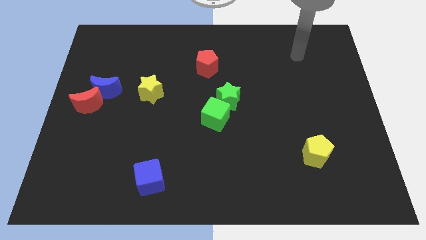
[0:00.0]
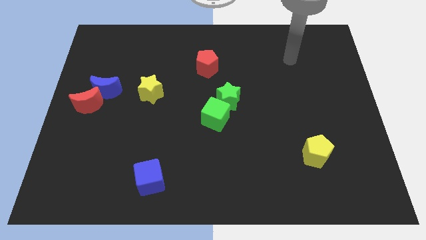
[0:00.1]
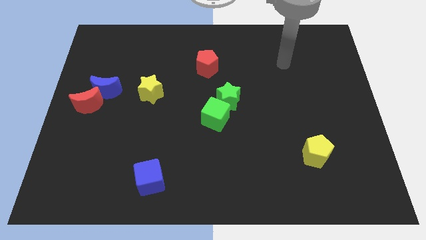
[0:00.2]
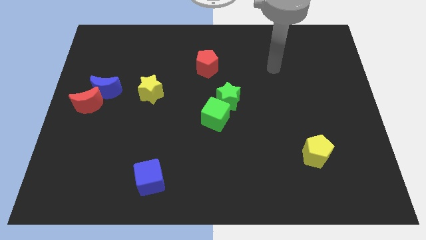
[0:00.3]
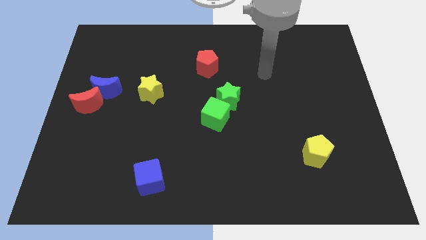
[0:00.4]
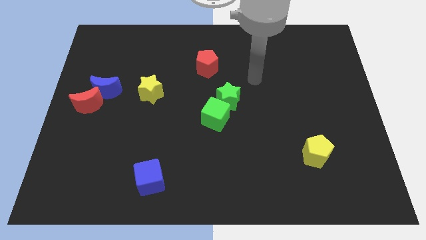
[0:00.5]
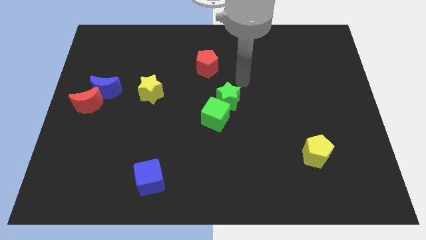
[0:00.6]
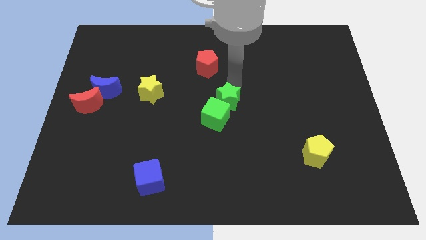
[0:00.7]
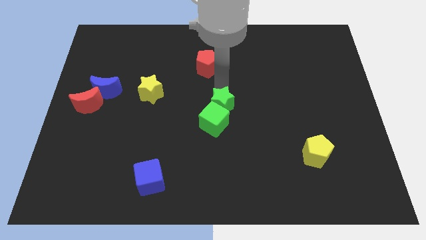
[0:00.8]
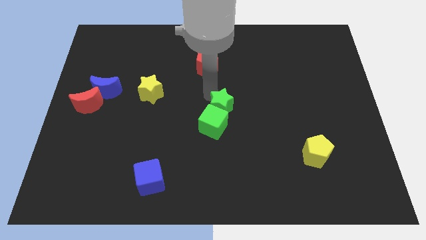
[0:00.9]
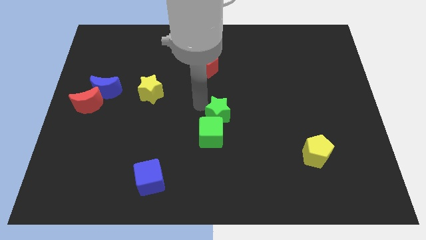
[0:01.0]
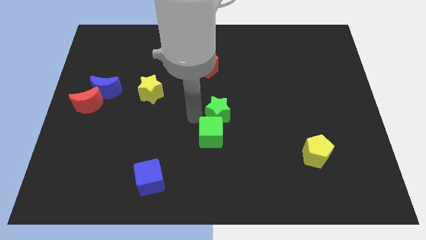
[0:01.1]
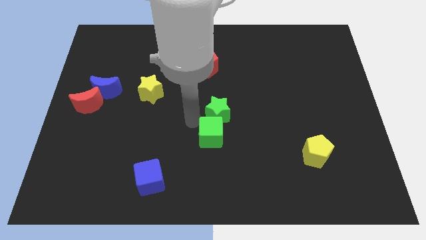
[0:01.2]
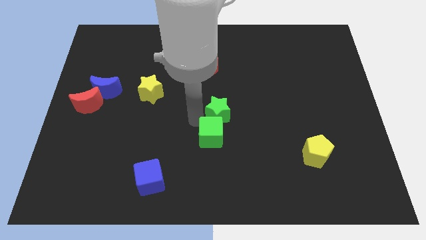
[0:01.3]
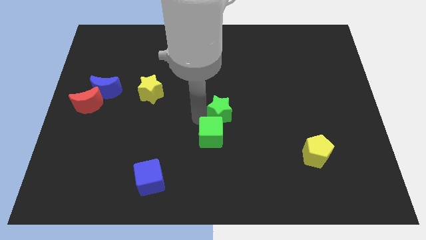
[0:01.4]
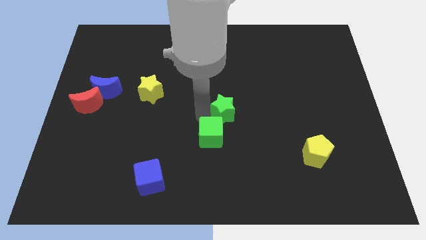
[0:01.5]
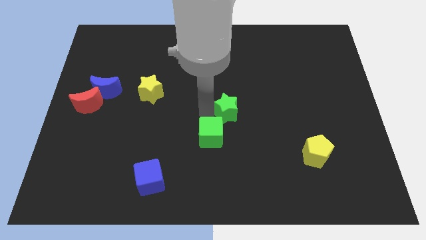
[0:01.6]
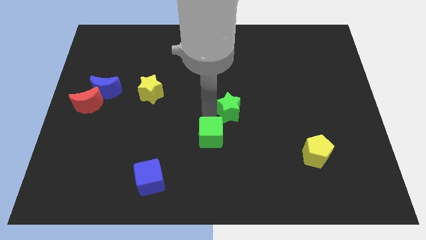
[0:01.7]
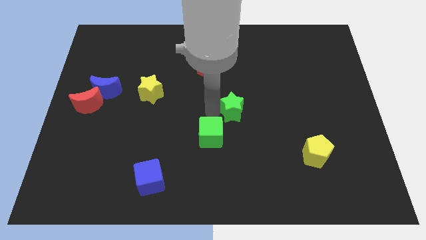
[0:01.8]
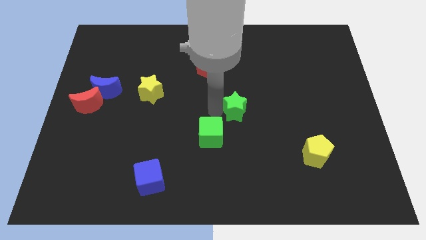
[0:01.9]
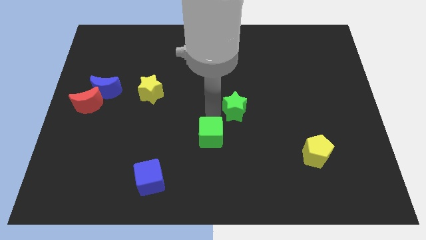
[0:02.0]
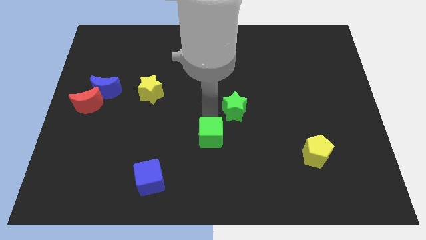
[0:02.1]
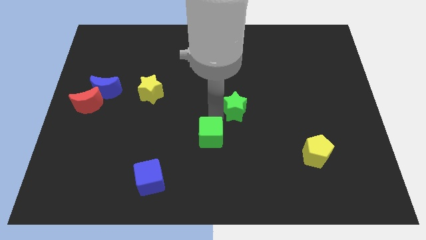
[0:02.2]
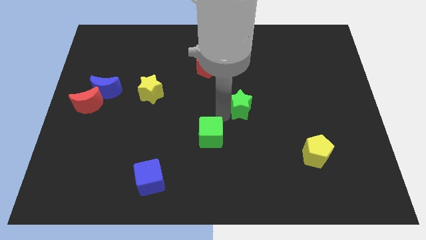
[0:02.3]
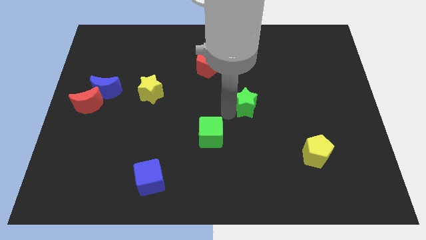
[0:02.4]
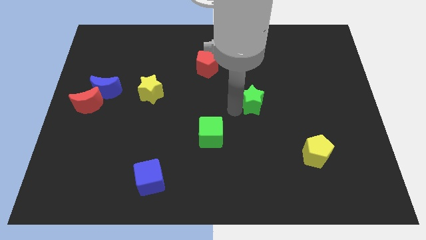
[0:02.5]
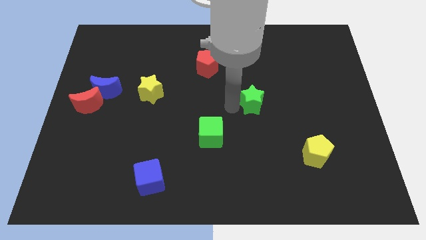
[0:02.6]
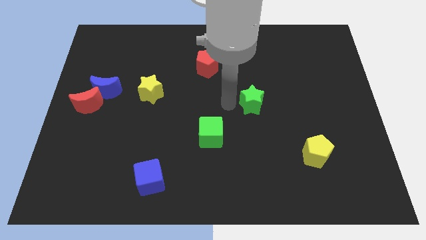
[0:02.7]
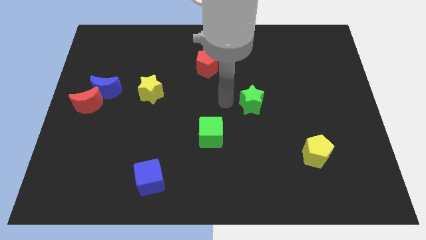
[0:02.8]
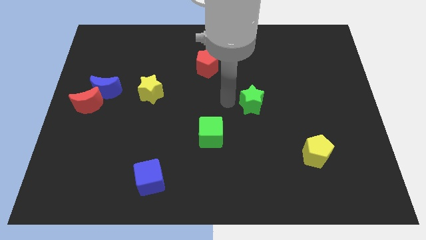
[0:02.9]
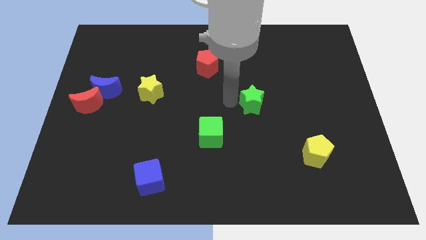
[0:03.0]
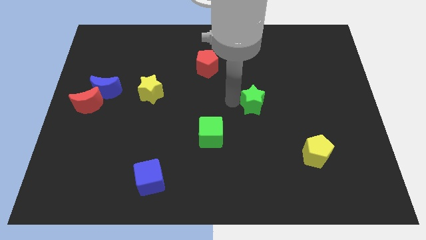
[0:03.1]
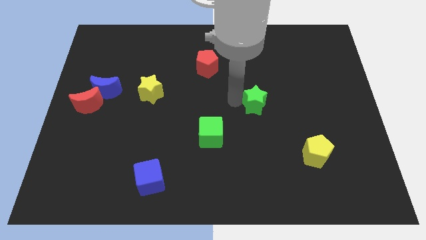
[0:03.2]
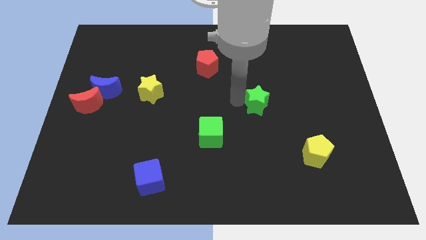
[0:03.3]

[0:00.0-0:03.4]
slide the green star a little right

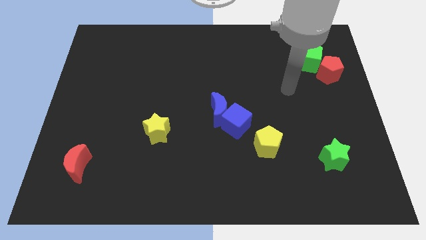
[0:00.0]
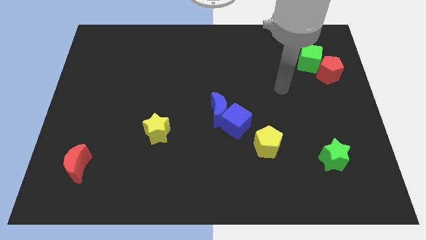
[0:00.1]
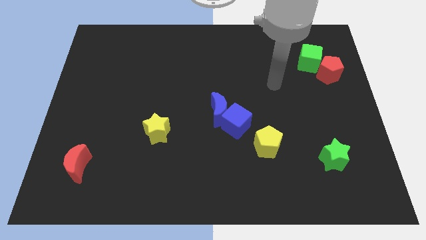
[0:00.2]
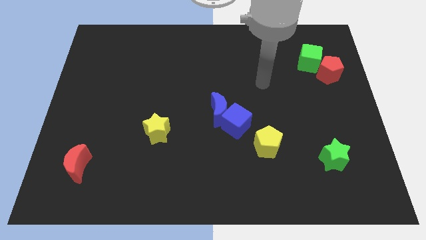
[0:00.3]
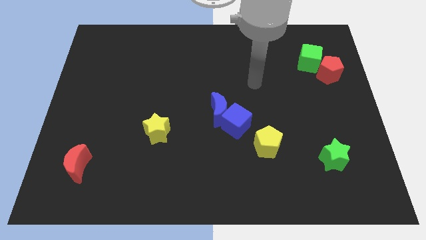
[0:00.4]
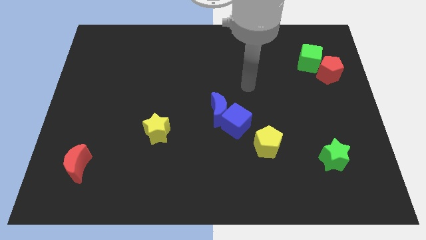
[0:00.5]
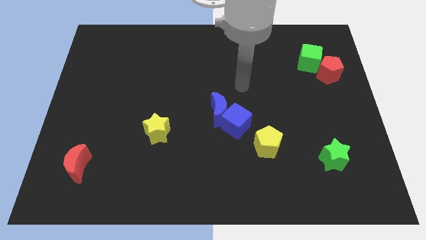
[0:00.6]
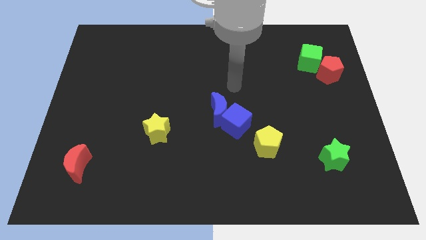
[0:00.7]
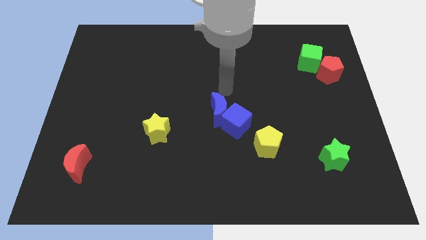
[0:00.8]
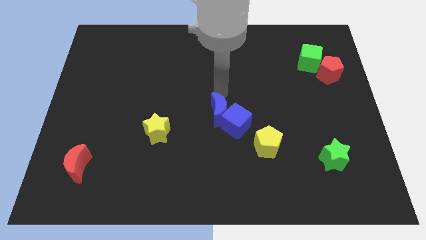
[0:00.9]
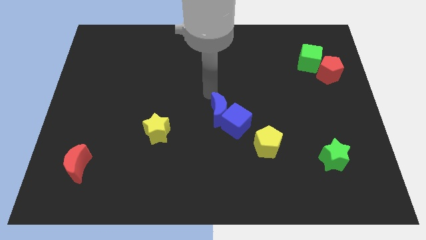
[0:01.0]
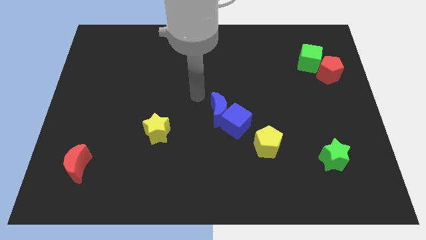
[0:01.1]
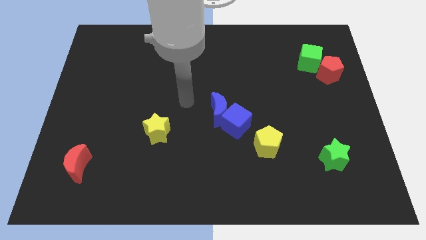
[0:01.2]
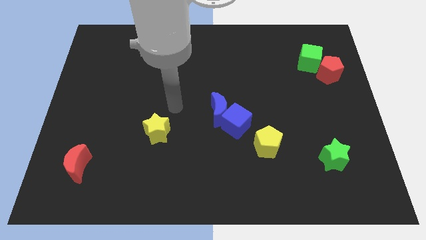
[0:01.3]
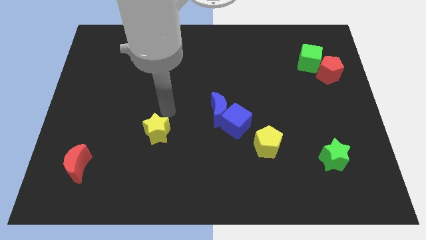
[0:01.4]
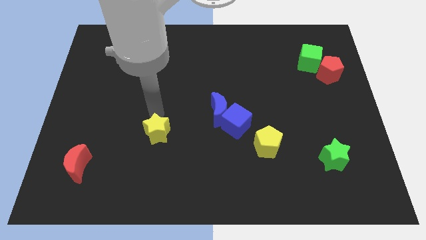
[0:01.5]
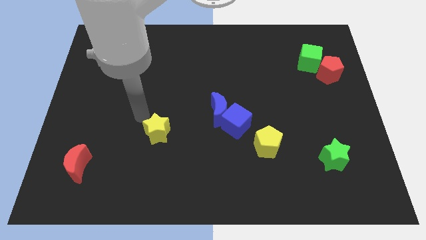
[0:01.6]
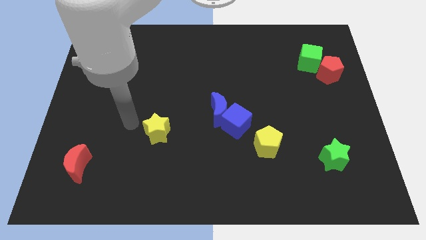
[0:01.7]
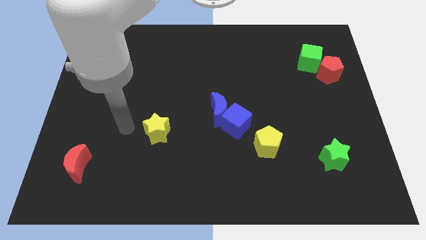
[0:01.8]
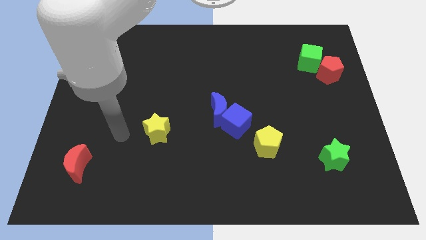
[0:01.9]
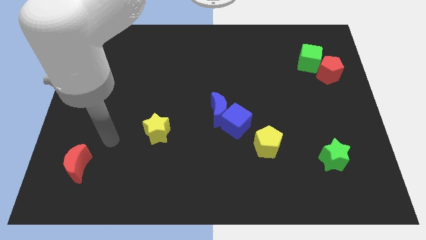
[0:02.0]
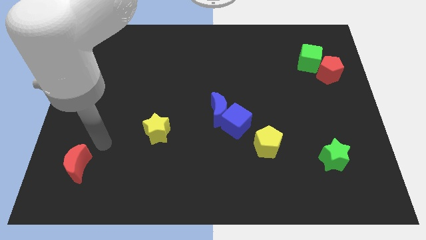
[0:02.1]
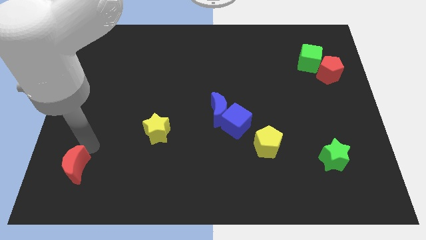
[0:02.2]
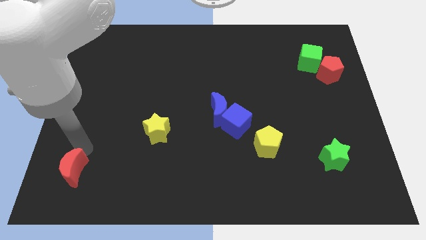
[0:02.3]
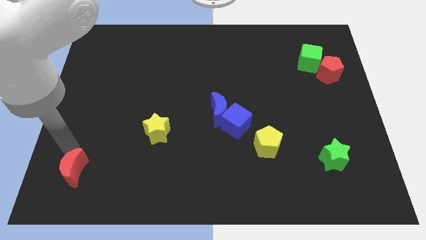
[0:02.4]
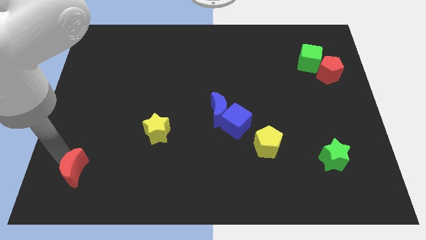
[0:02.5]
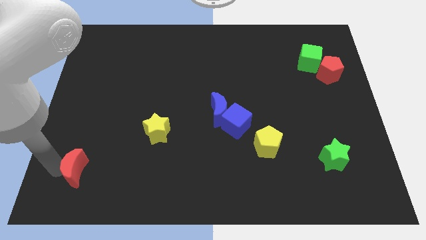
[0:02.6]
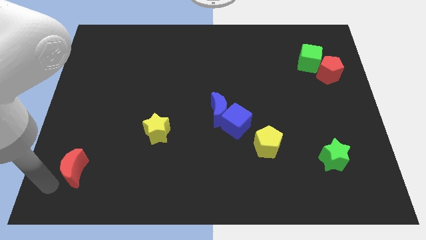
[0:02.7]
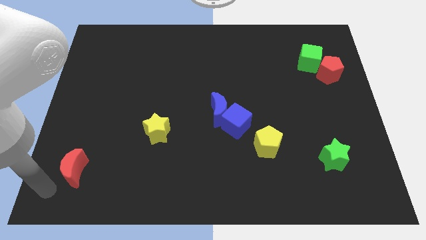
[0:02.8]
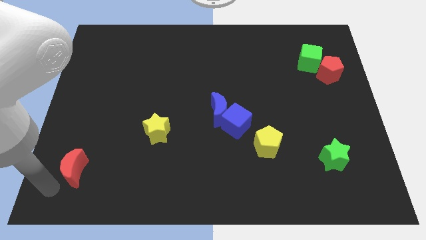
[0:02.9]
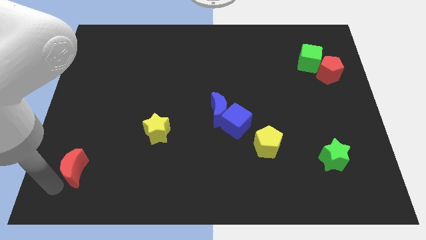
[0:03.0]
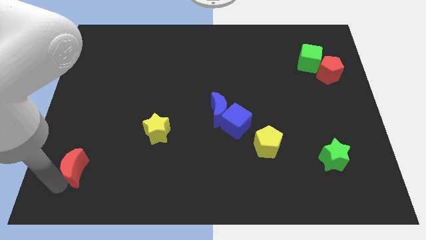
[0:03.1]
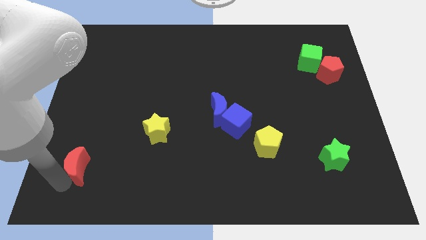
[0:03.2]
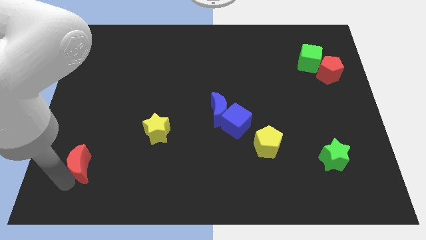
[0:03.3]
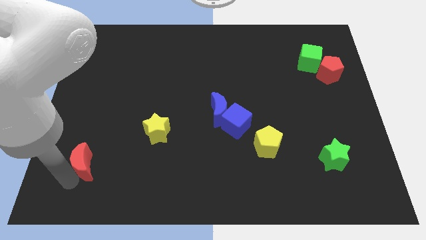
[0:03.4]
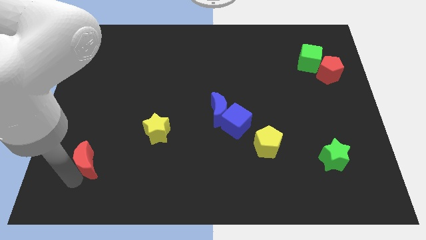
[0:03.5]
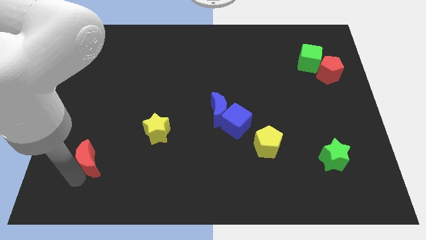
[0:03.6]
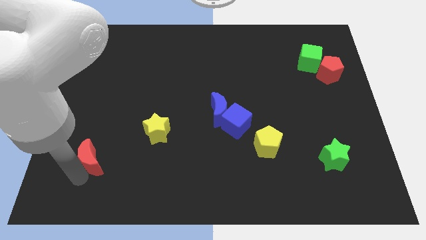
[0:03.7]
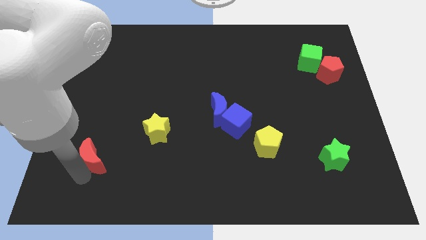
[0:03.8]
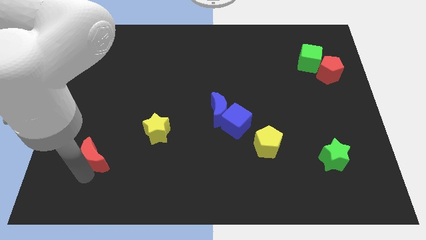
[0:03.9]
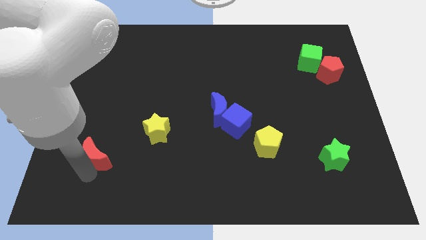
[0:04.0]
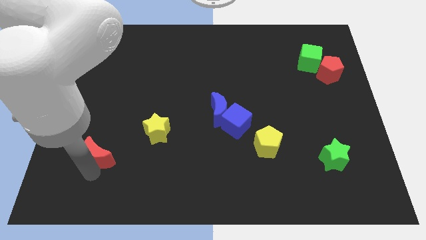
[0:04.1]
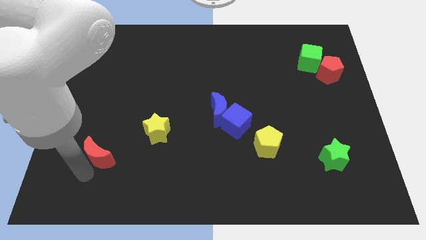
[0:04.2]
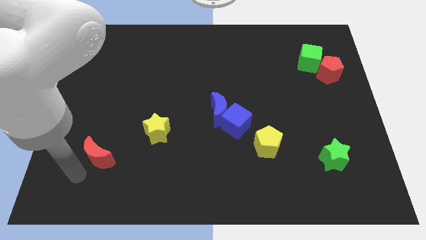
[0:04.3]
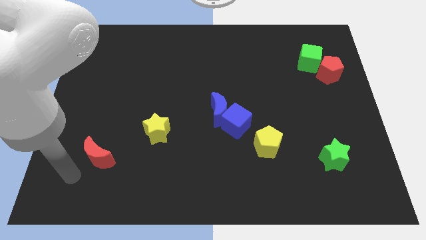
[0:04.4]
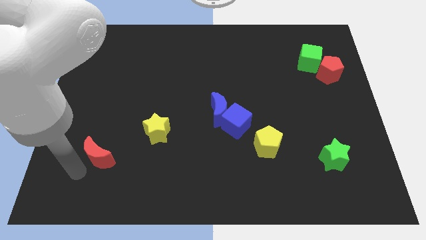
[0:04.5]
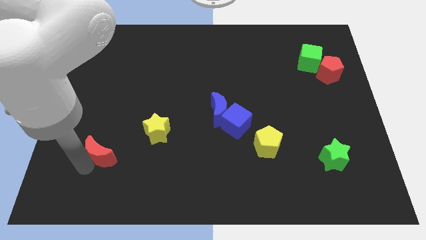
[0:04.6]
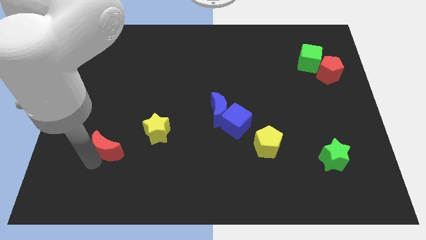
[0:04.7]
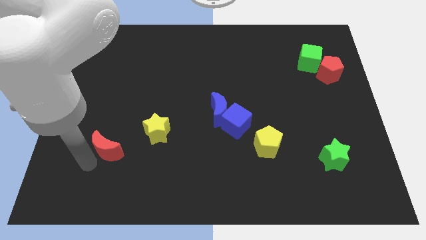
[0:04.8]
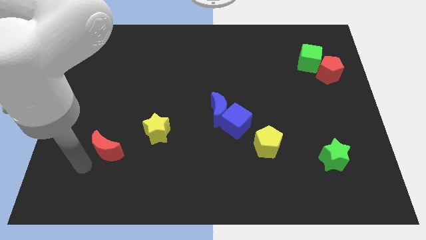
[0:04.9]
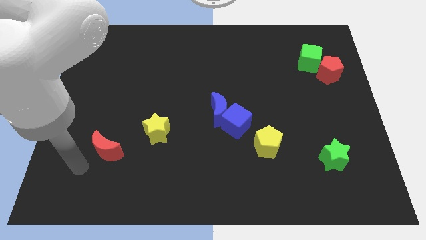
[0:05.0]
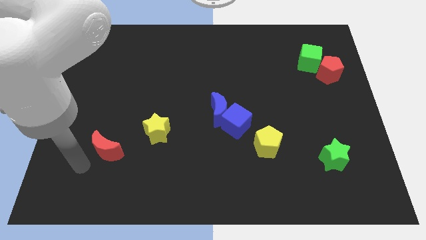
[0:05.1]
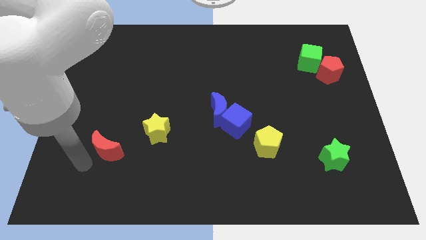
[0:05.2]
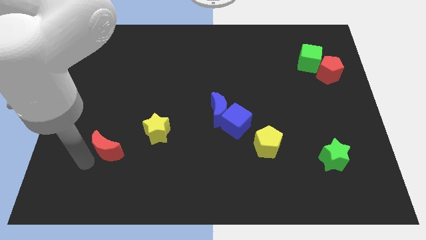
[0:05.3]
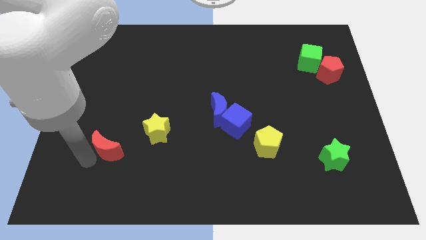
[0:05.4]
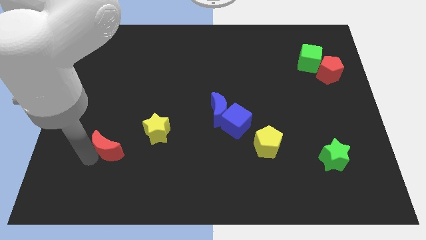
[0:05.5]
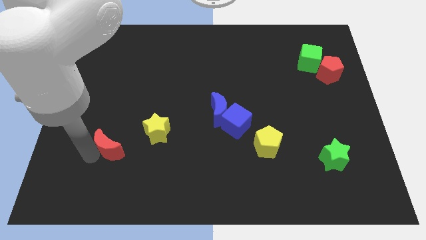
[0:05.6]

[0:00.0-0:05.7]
move the red moon slightly up and right
